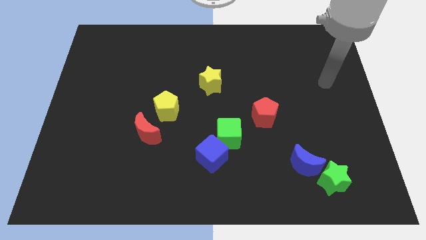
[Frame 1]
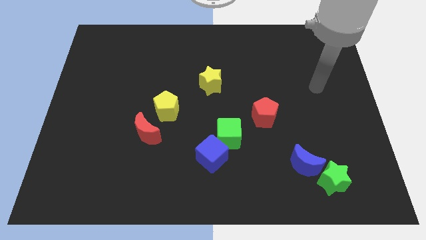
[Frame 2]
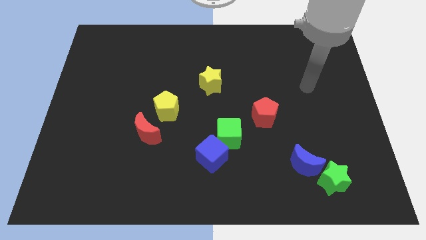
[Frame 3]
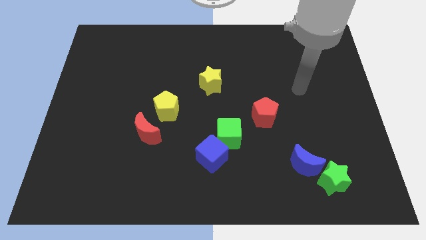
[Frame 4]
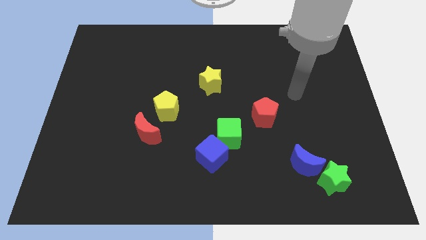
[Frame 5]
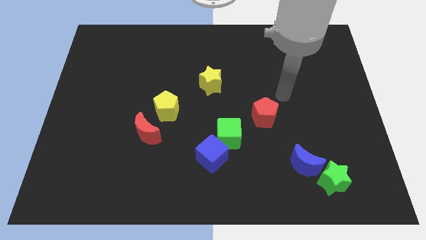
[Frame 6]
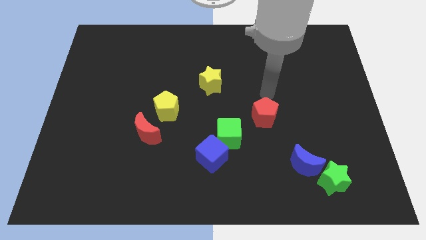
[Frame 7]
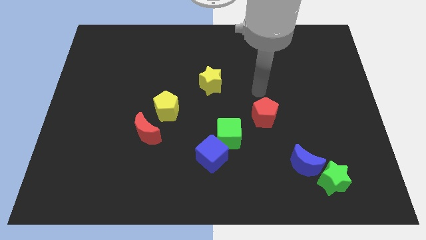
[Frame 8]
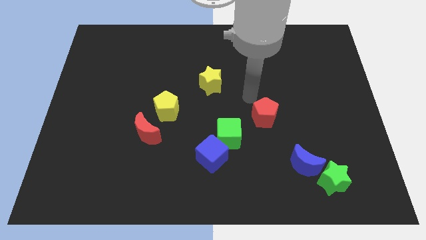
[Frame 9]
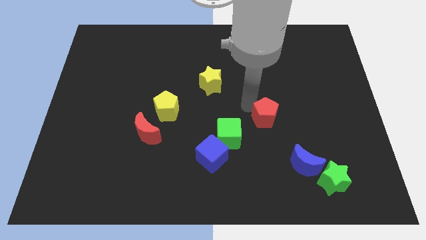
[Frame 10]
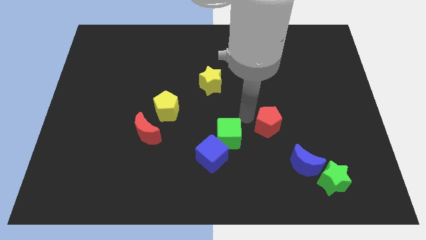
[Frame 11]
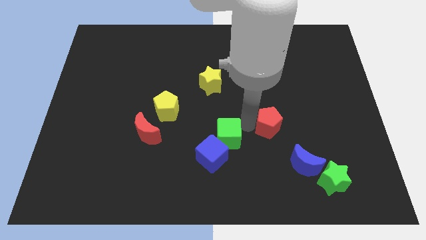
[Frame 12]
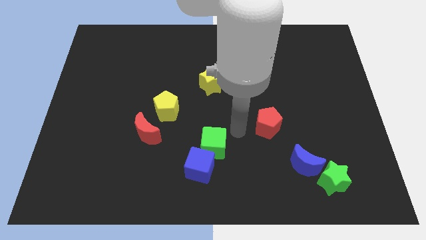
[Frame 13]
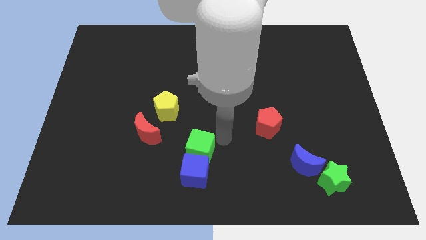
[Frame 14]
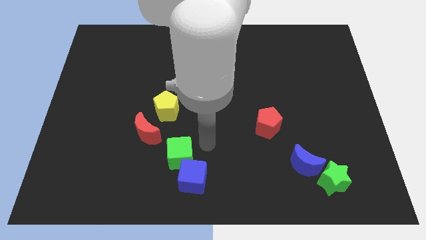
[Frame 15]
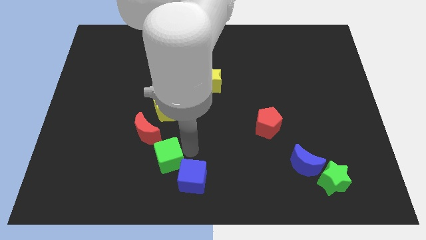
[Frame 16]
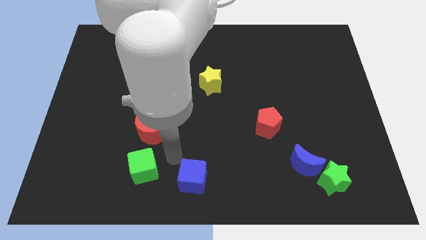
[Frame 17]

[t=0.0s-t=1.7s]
move the blue cube away from the green cube

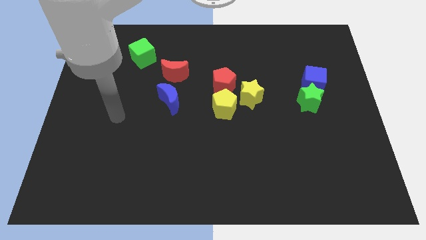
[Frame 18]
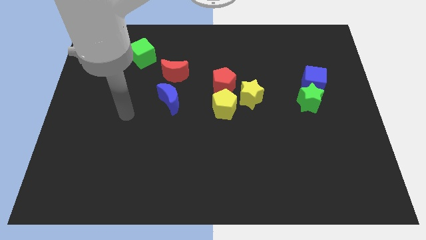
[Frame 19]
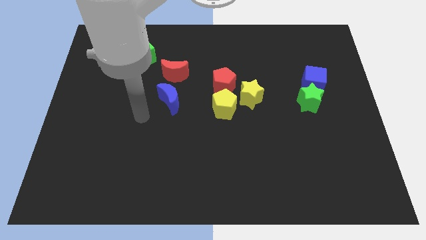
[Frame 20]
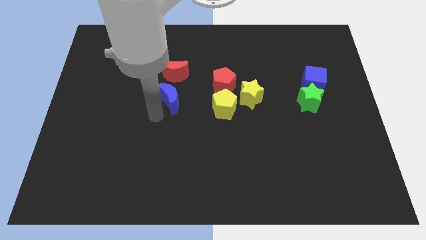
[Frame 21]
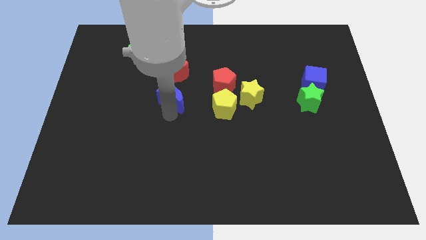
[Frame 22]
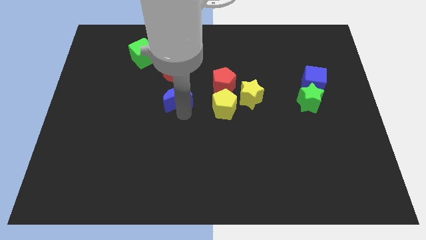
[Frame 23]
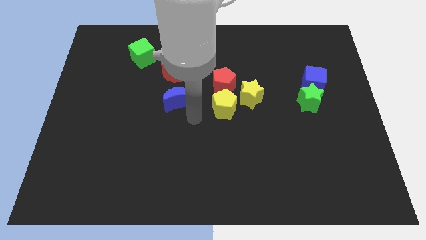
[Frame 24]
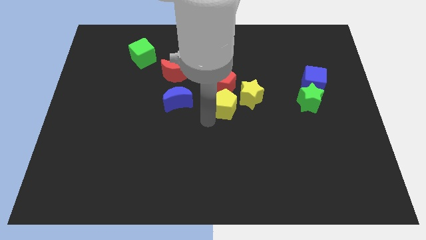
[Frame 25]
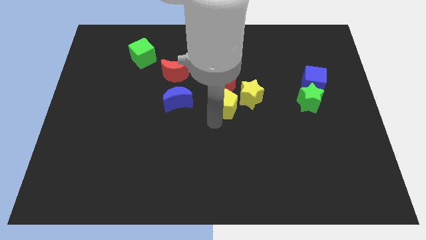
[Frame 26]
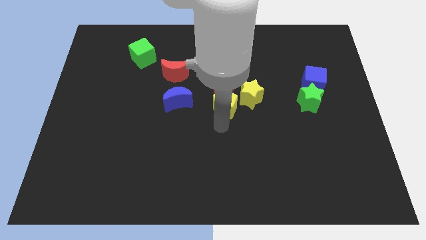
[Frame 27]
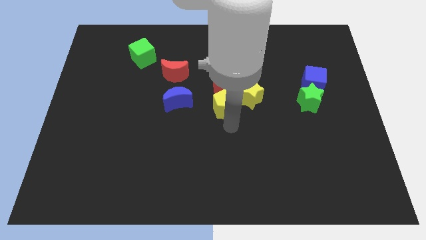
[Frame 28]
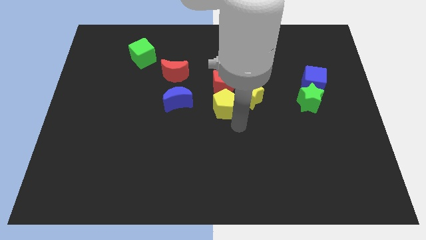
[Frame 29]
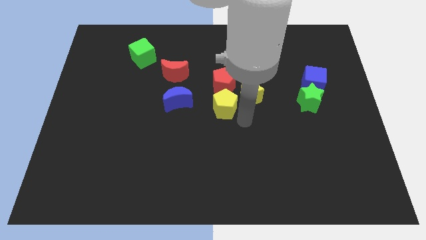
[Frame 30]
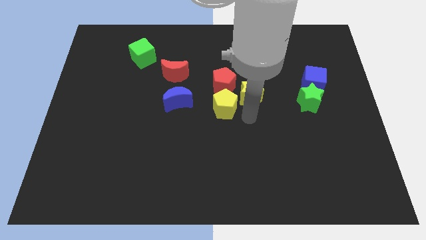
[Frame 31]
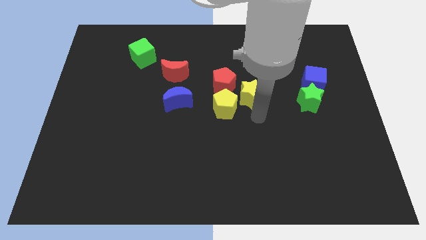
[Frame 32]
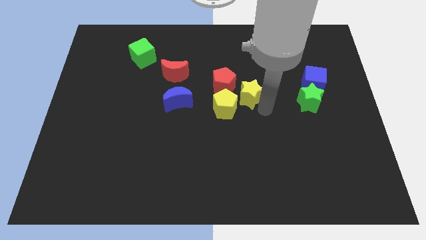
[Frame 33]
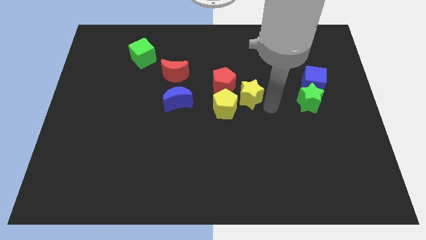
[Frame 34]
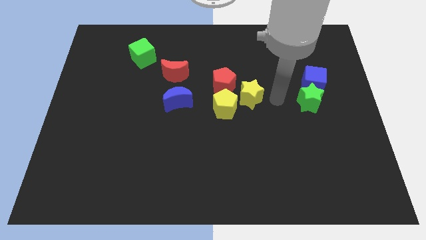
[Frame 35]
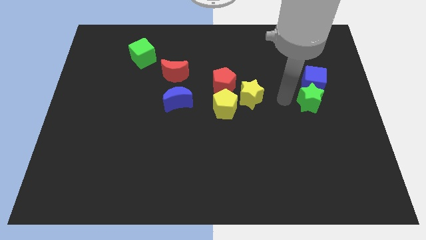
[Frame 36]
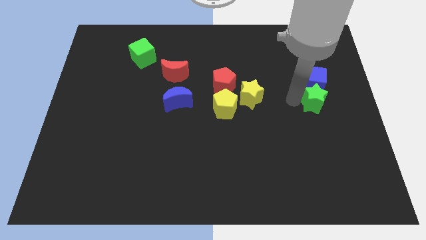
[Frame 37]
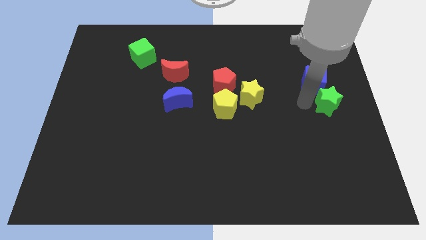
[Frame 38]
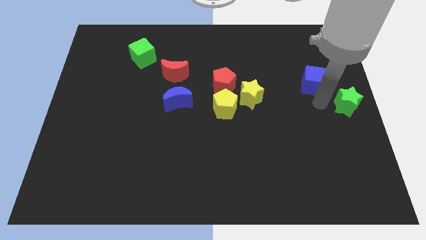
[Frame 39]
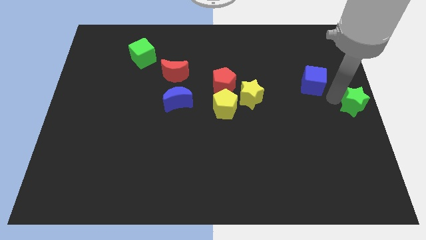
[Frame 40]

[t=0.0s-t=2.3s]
move the blue cube away from the green star

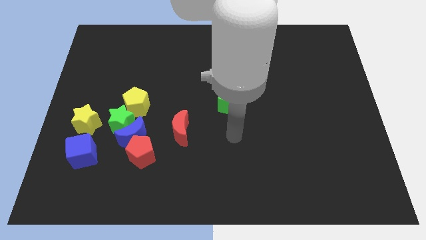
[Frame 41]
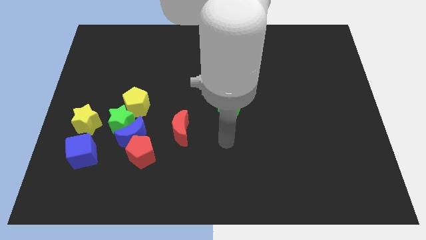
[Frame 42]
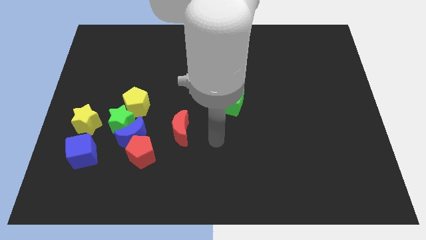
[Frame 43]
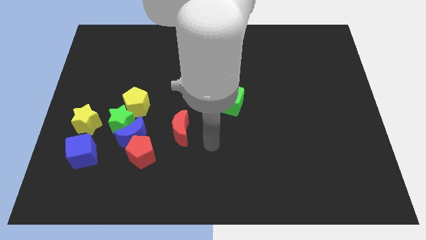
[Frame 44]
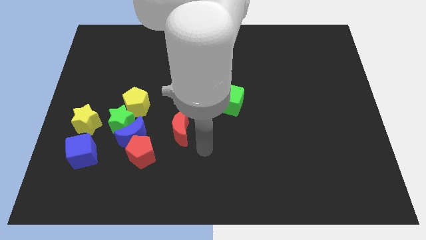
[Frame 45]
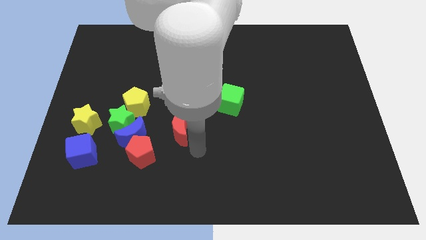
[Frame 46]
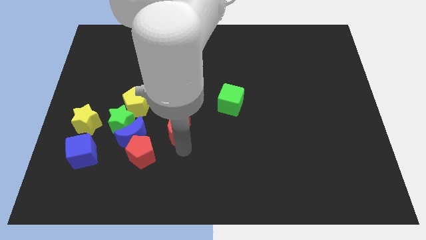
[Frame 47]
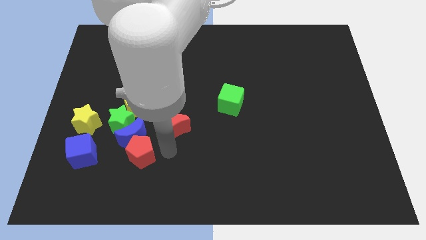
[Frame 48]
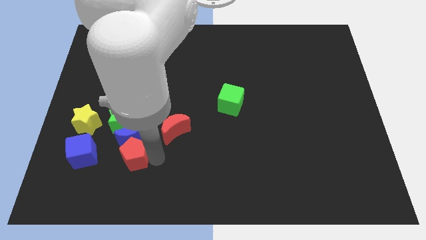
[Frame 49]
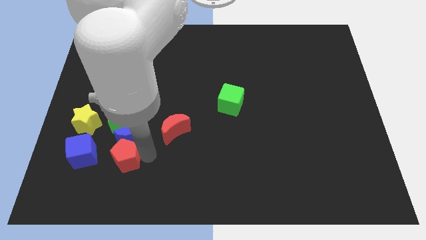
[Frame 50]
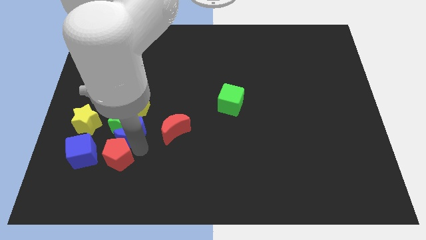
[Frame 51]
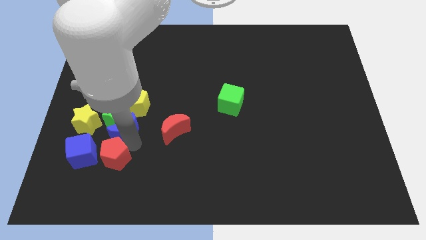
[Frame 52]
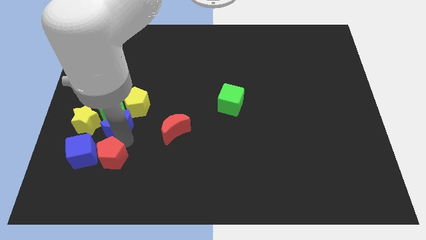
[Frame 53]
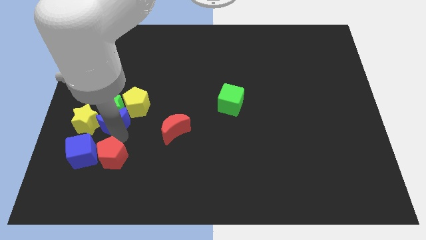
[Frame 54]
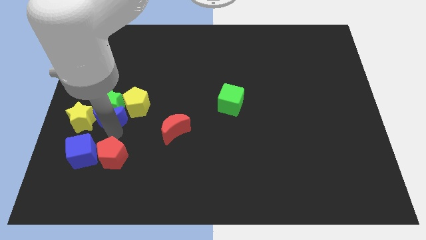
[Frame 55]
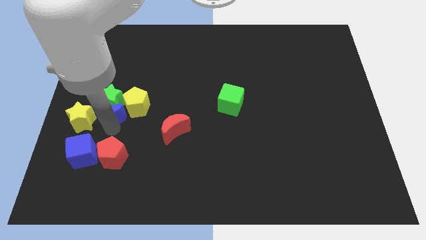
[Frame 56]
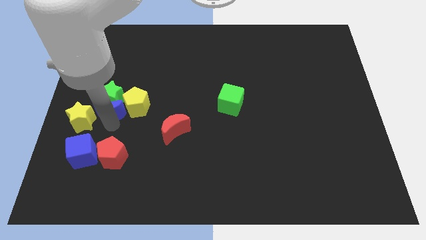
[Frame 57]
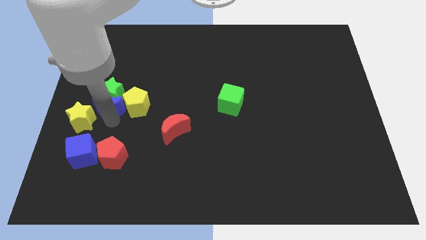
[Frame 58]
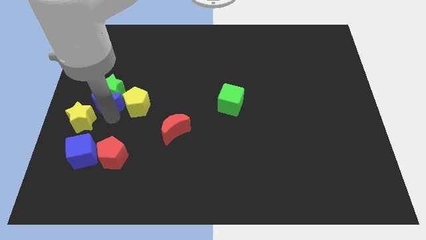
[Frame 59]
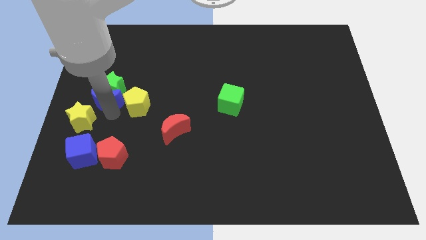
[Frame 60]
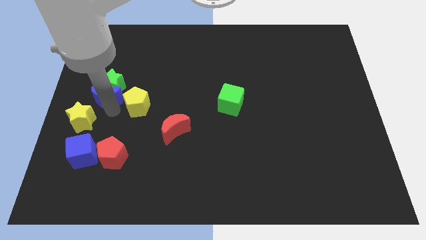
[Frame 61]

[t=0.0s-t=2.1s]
move the green star away from the group of blocks

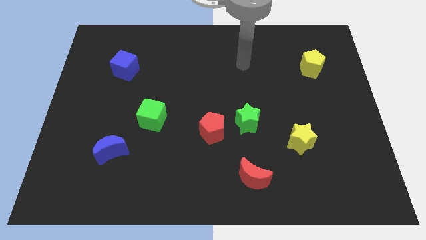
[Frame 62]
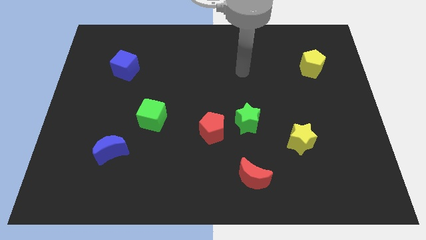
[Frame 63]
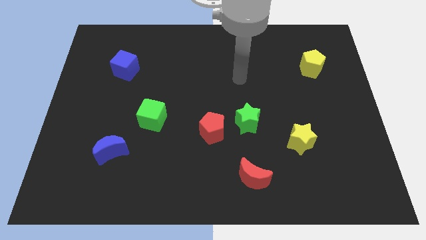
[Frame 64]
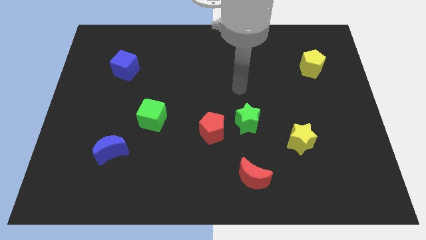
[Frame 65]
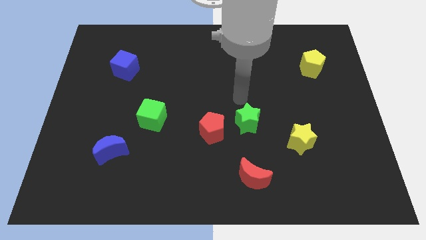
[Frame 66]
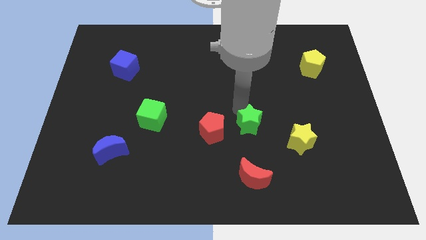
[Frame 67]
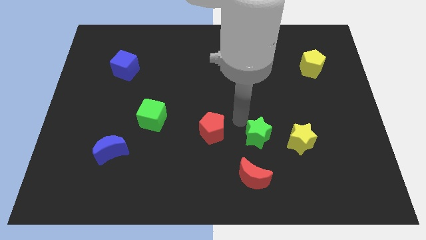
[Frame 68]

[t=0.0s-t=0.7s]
move the red pentagon away from the green star

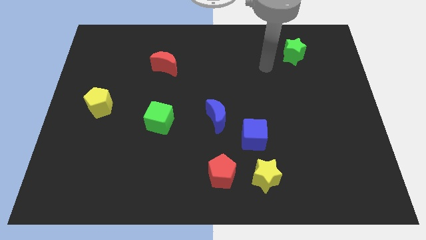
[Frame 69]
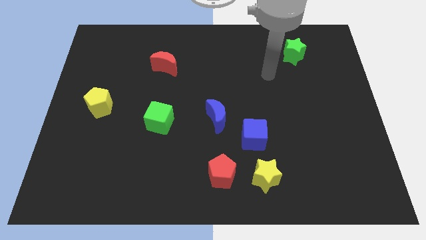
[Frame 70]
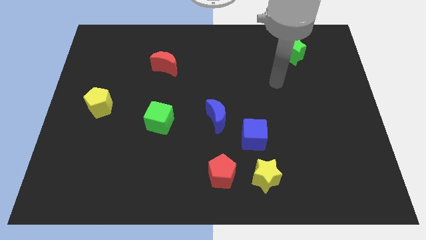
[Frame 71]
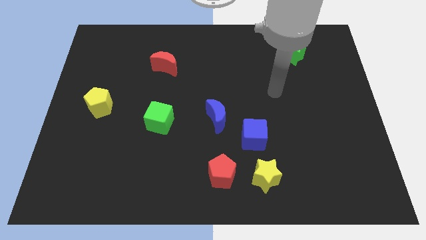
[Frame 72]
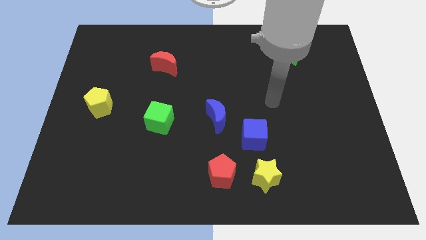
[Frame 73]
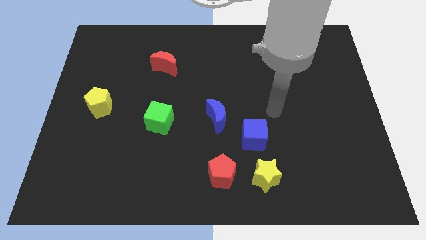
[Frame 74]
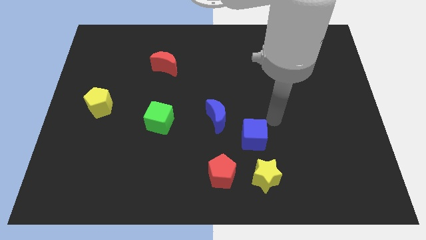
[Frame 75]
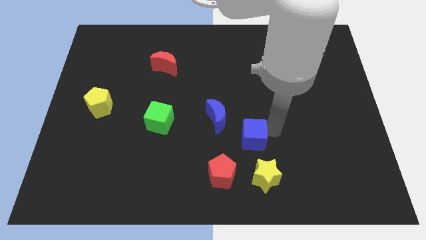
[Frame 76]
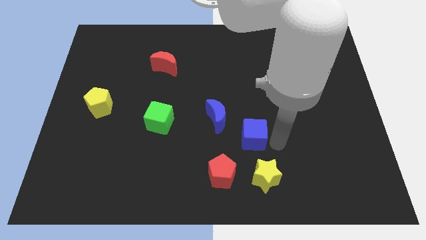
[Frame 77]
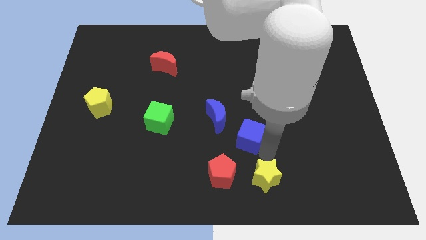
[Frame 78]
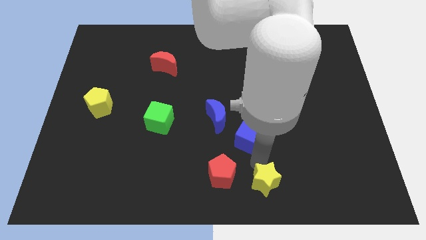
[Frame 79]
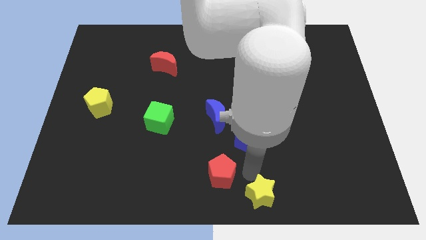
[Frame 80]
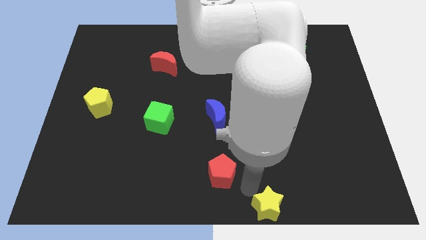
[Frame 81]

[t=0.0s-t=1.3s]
separate the red pentagon from the yellow star

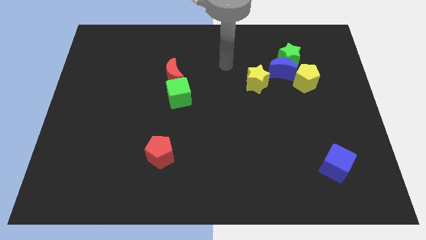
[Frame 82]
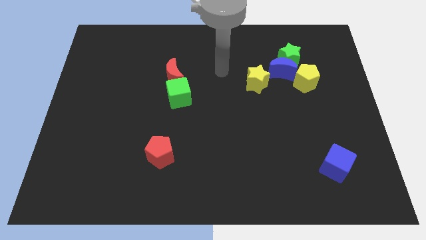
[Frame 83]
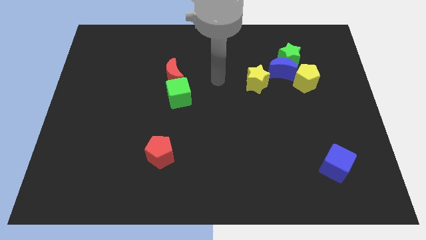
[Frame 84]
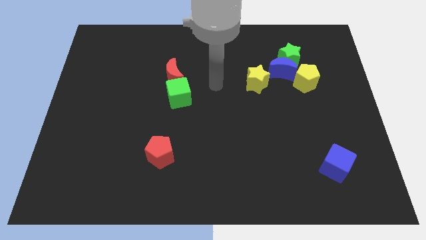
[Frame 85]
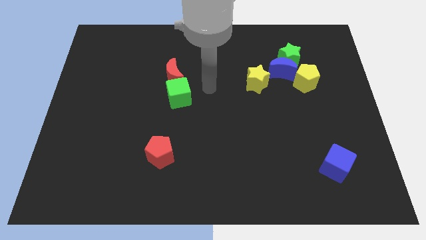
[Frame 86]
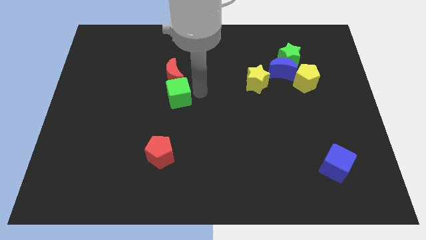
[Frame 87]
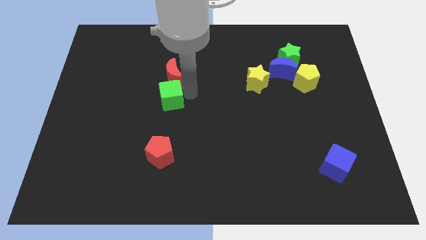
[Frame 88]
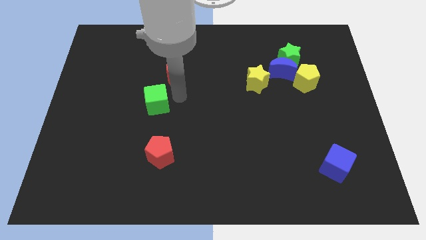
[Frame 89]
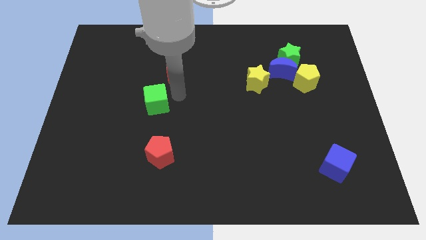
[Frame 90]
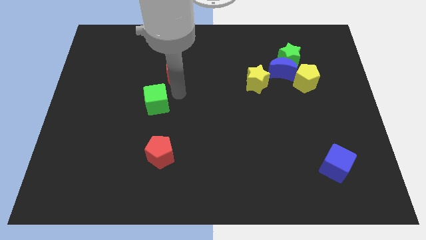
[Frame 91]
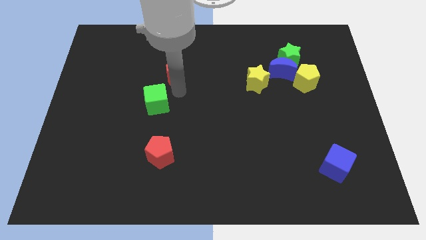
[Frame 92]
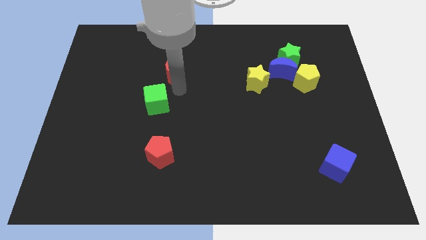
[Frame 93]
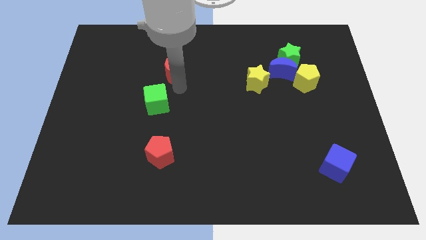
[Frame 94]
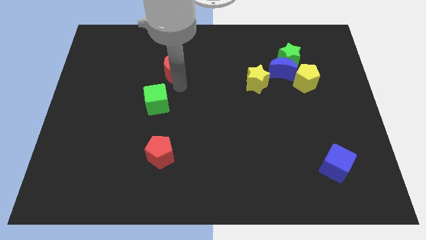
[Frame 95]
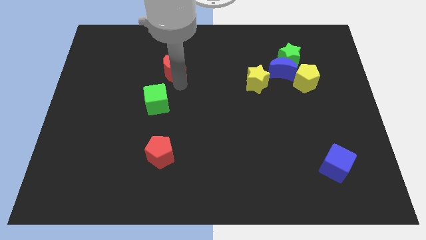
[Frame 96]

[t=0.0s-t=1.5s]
separate the red moon from the green cube
